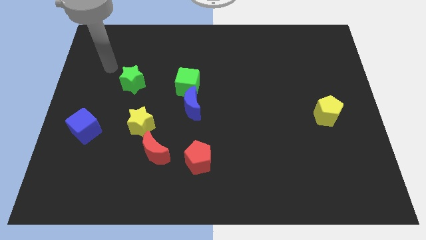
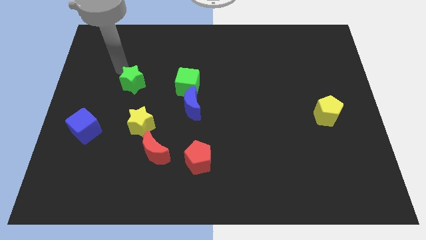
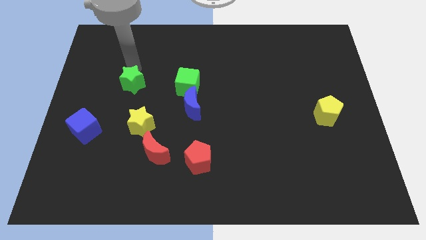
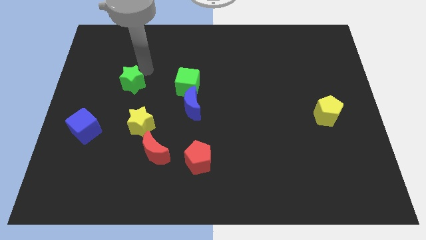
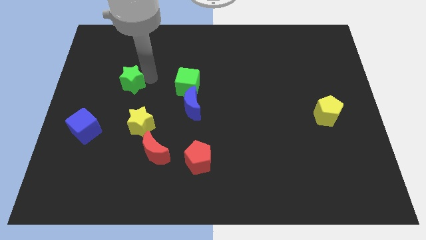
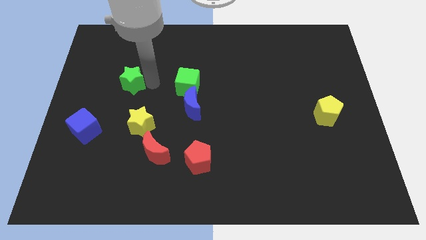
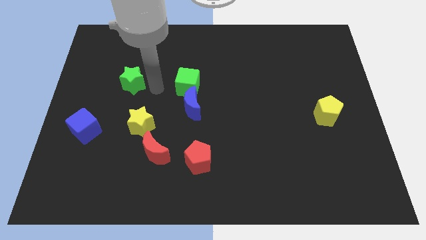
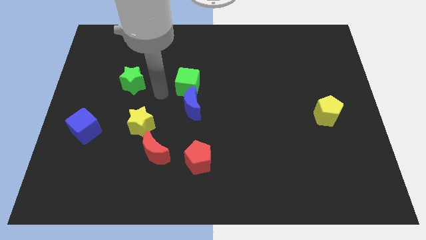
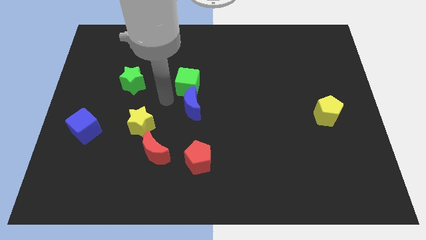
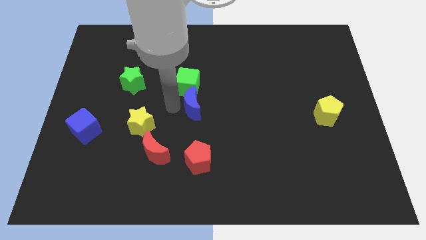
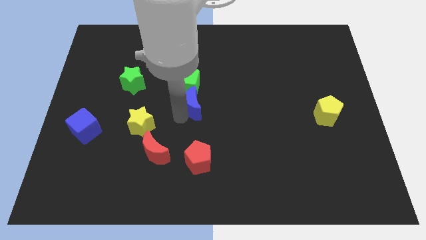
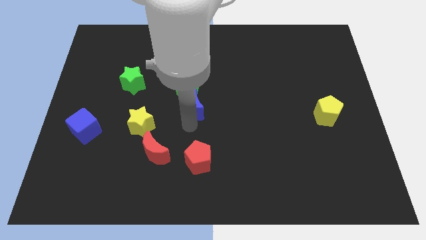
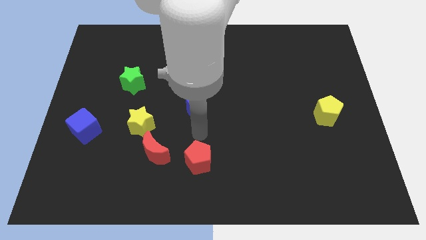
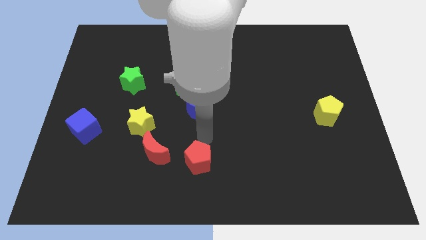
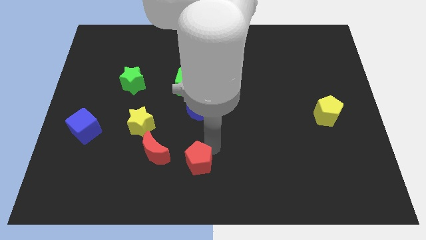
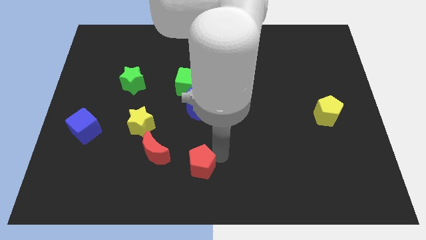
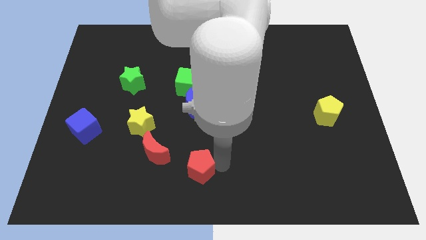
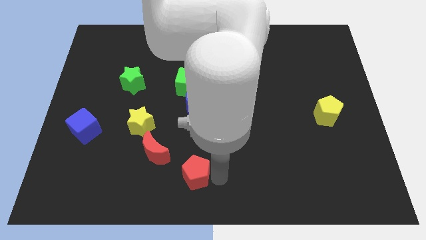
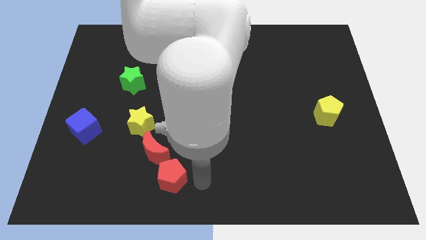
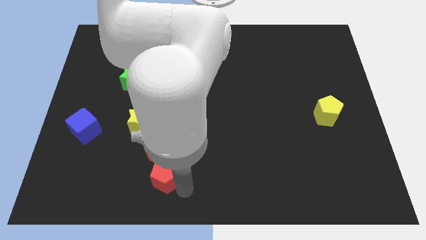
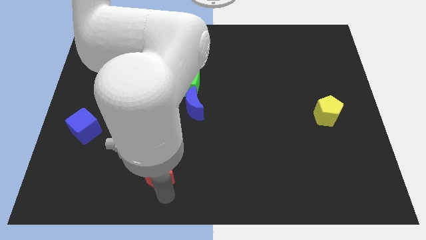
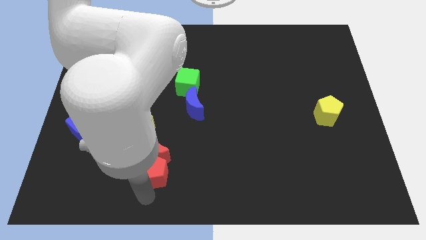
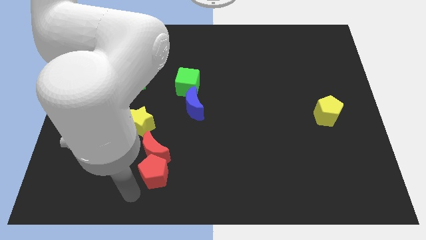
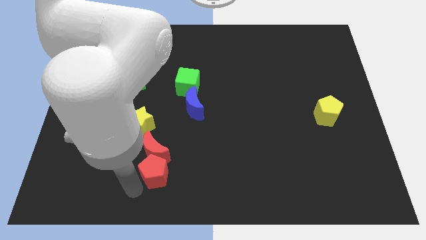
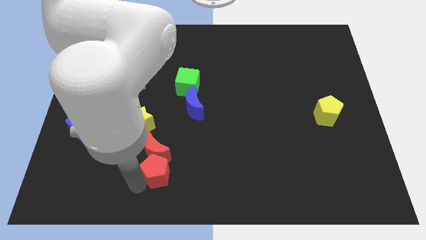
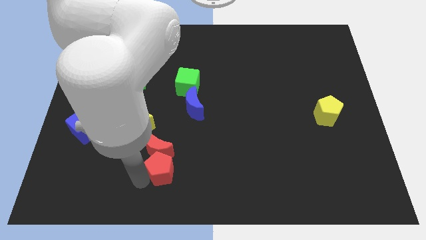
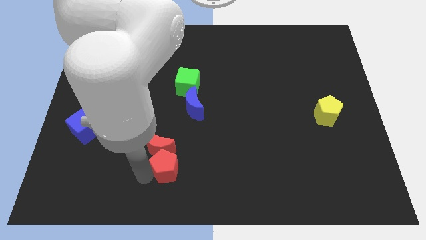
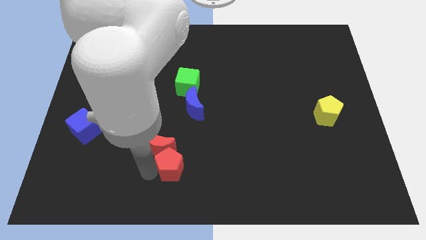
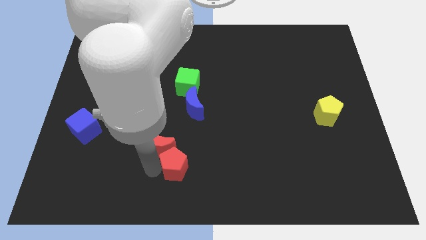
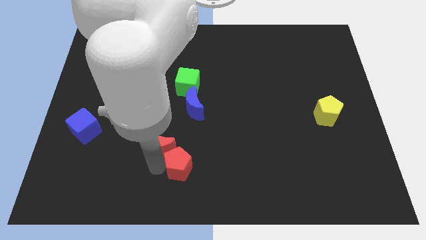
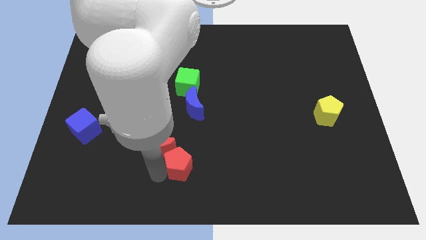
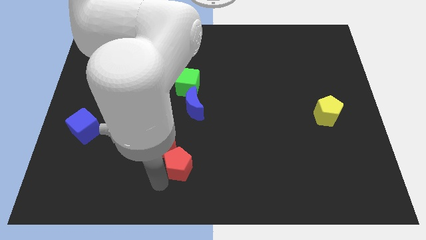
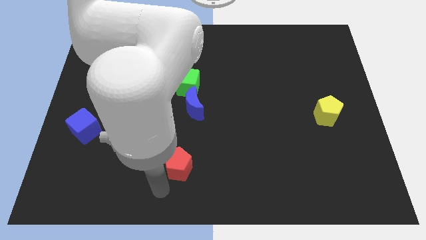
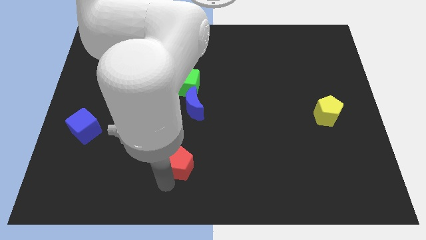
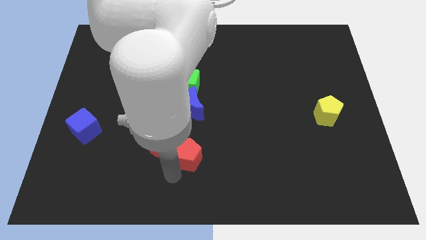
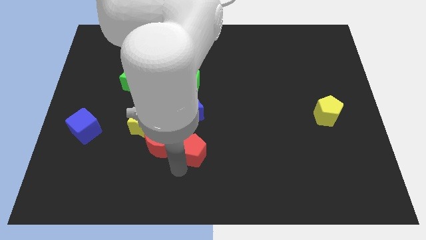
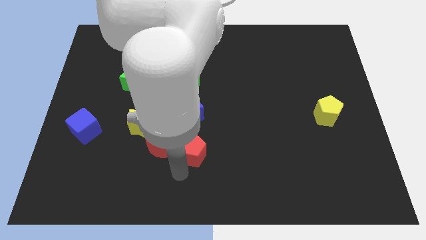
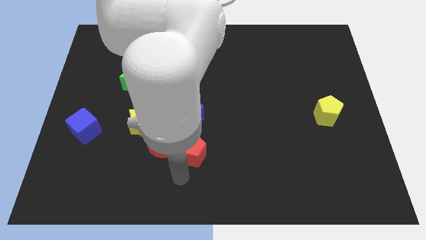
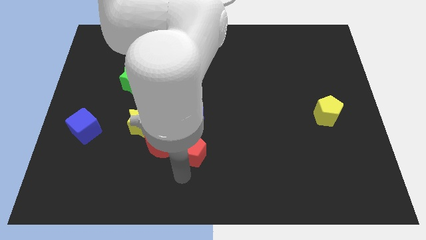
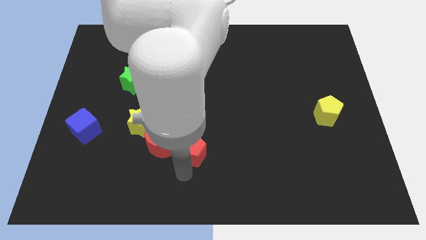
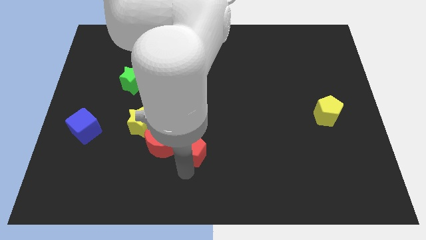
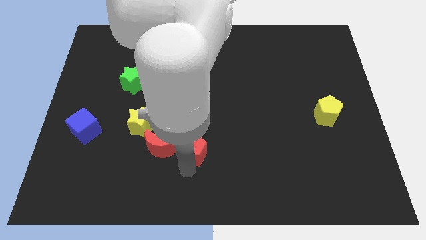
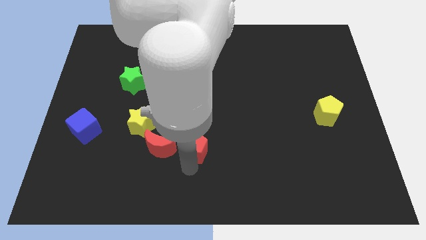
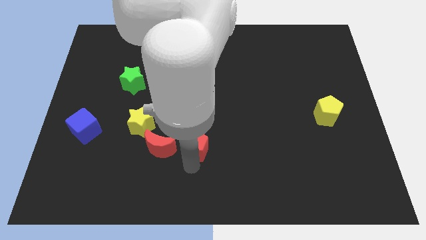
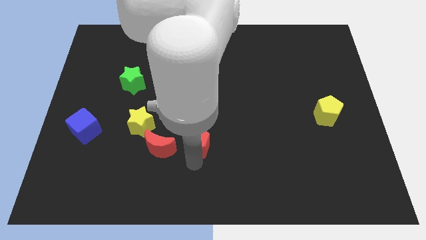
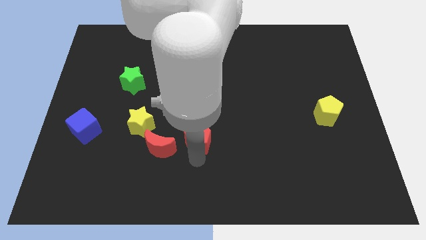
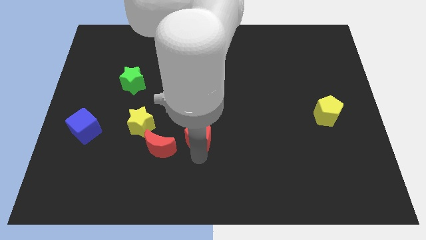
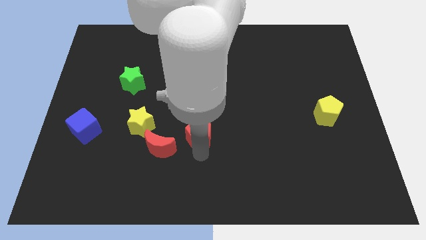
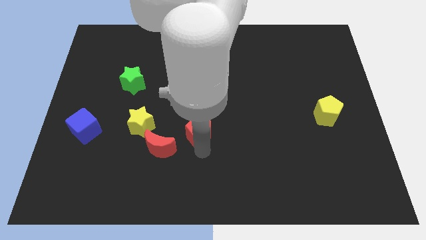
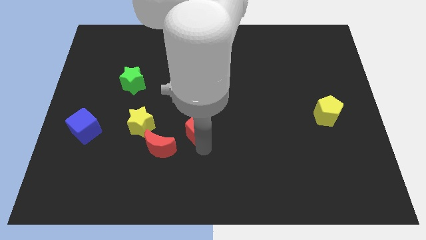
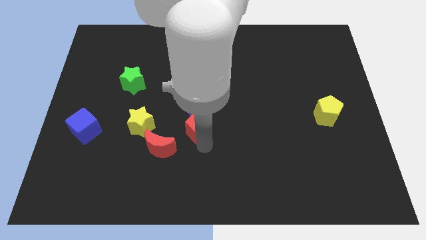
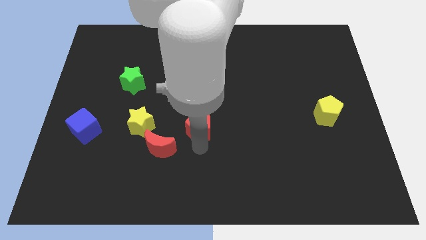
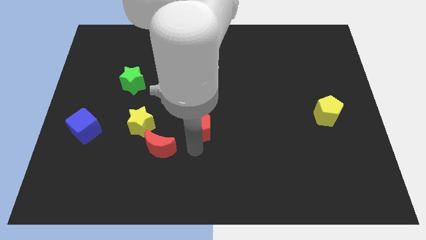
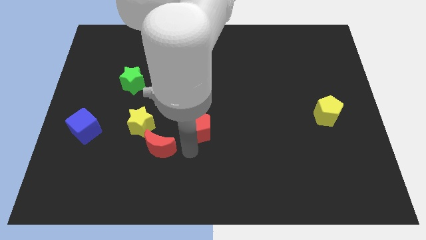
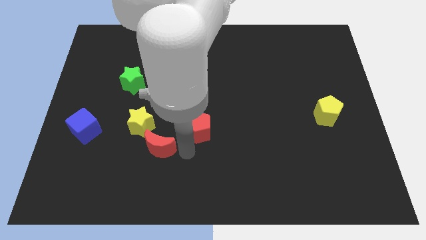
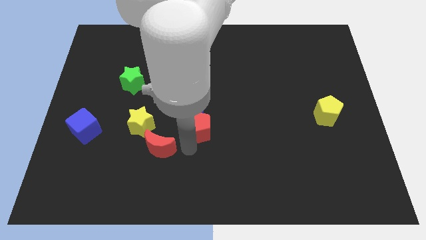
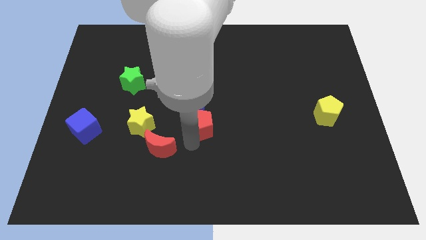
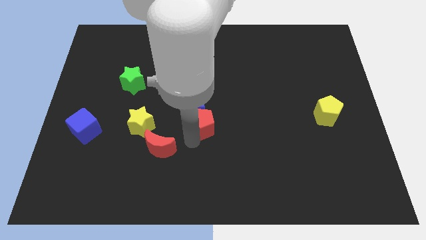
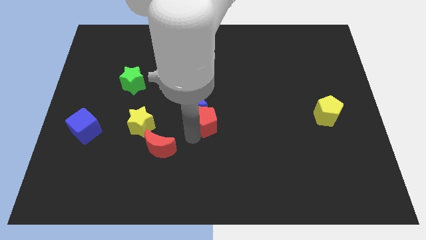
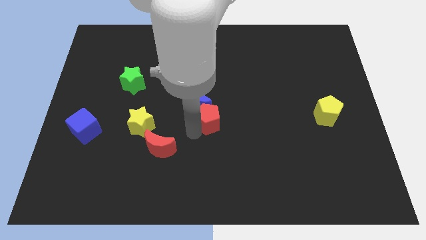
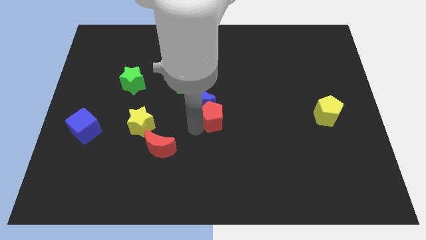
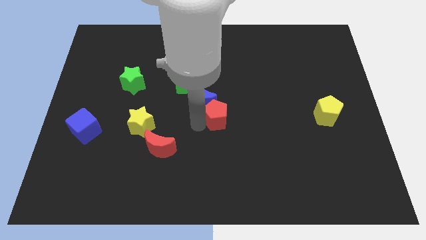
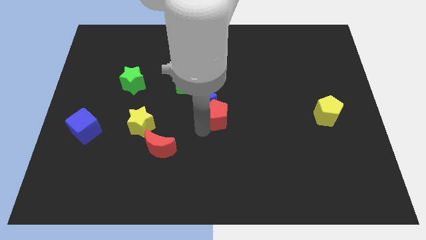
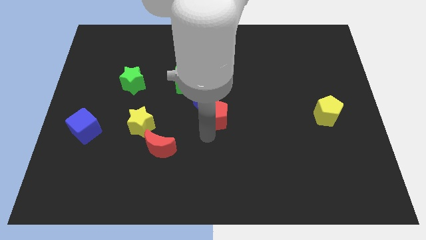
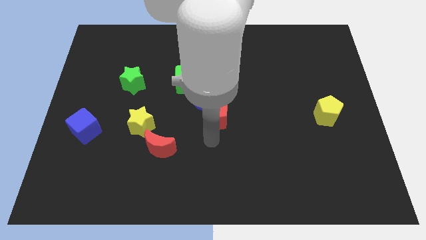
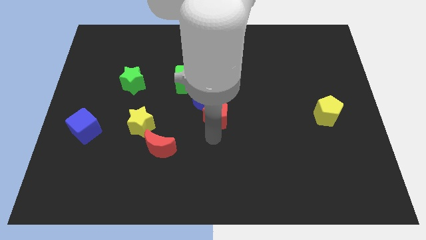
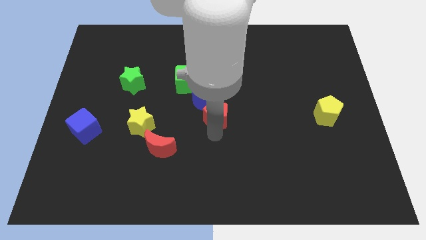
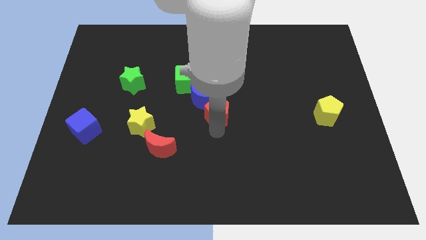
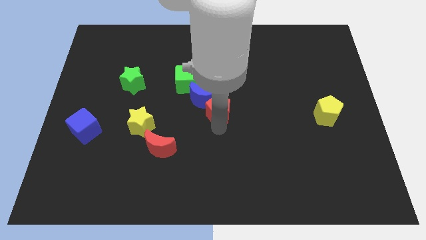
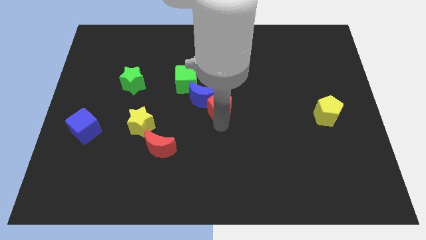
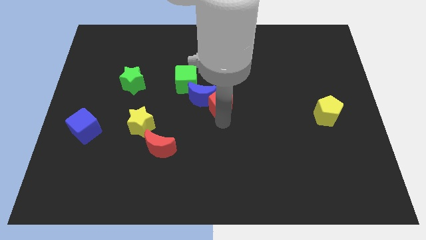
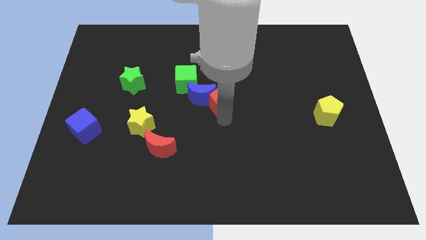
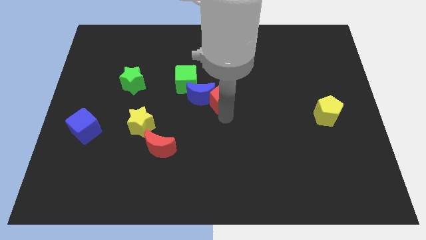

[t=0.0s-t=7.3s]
move the red pentagon to the top right side of the blue moon
